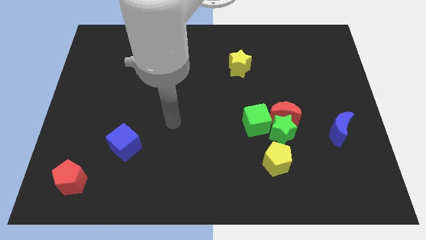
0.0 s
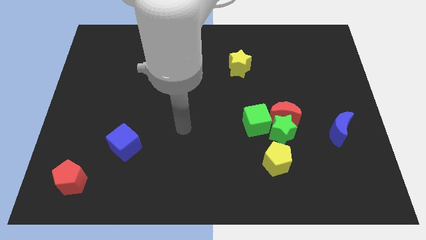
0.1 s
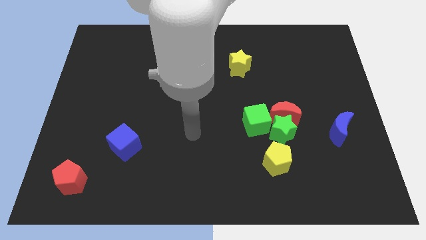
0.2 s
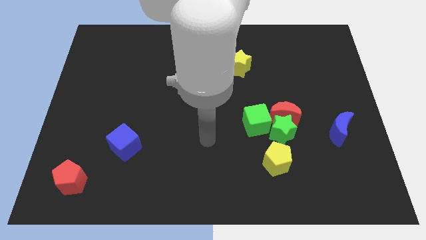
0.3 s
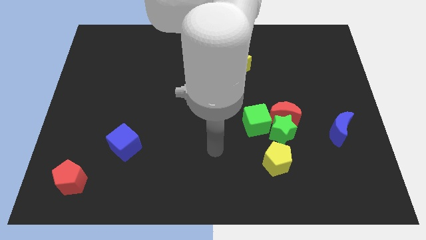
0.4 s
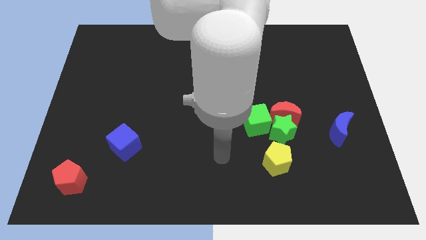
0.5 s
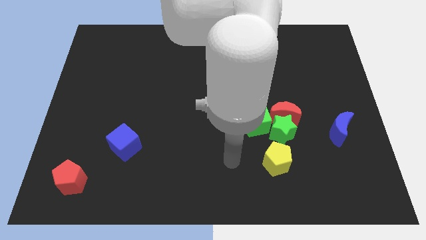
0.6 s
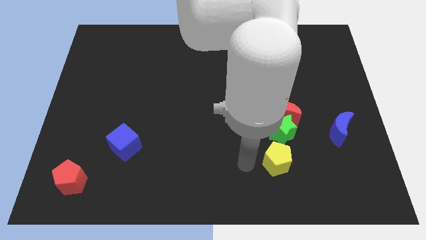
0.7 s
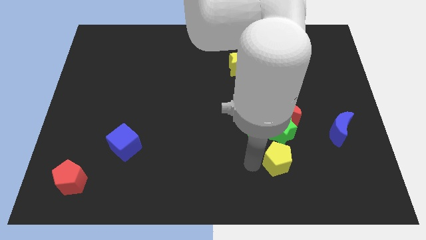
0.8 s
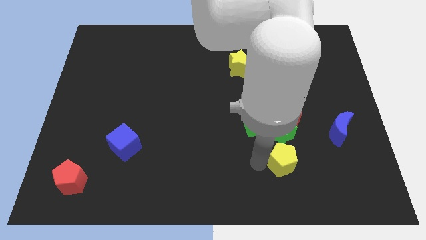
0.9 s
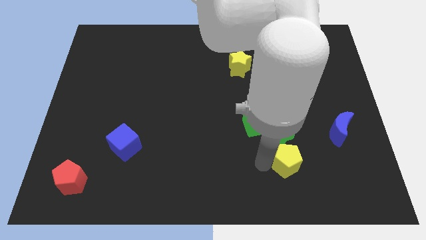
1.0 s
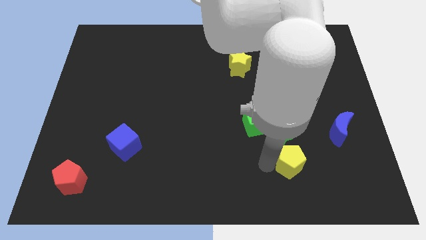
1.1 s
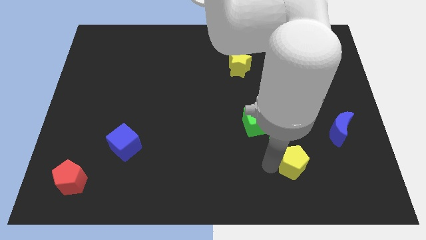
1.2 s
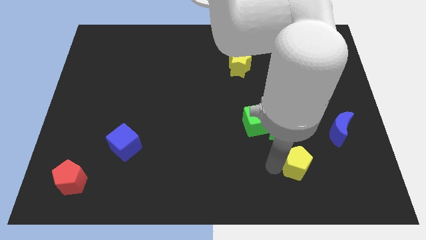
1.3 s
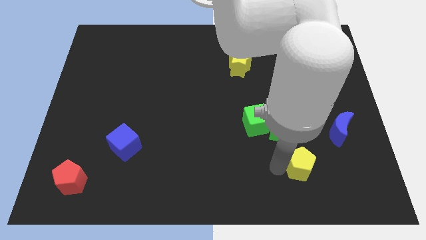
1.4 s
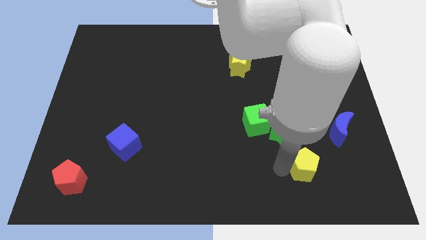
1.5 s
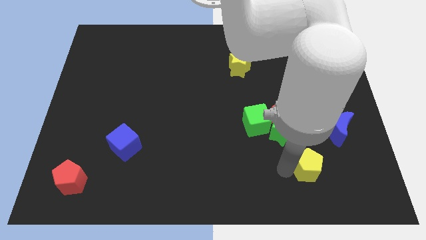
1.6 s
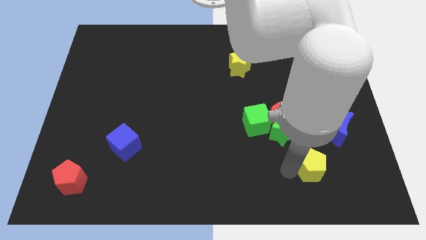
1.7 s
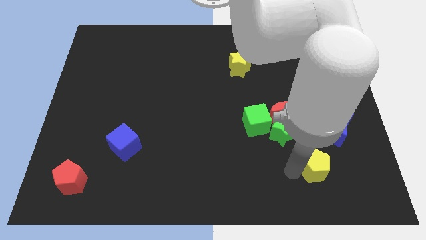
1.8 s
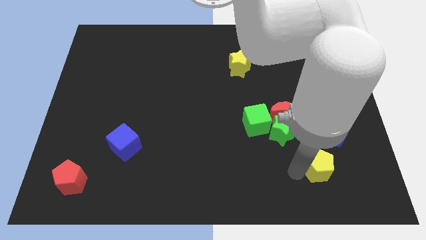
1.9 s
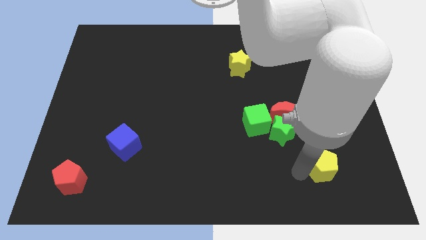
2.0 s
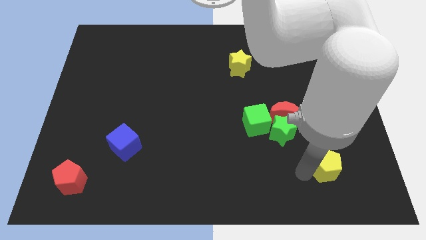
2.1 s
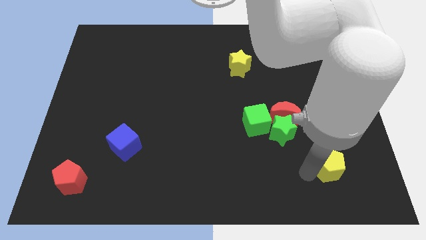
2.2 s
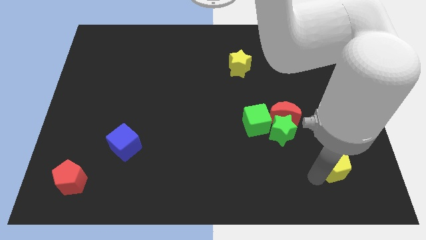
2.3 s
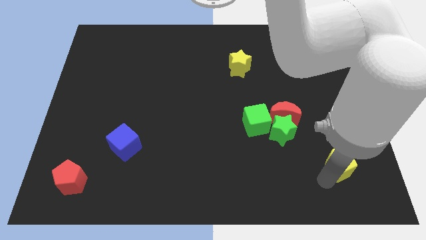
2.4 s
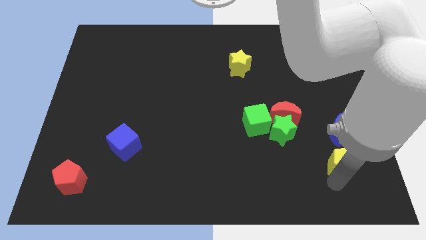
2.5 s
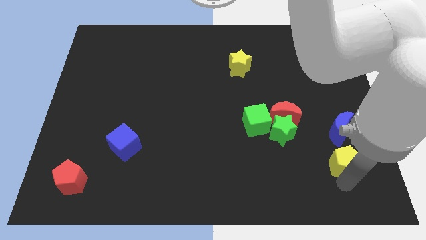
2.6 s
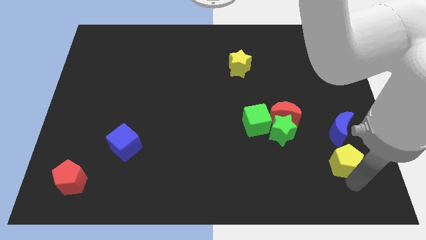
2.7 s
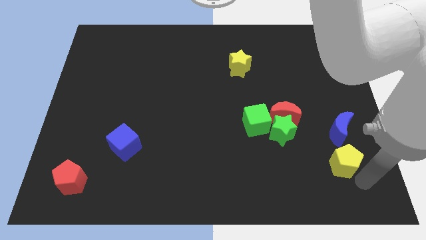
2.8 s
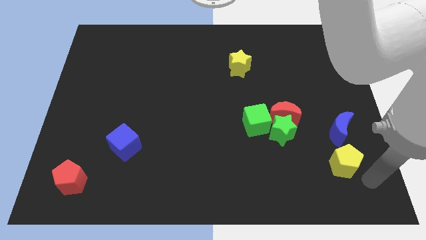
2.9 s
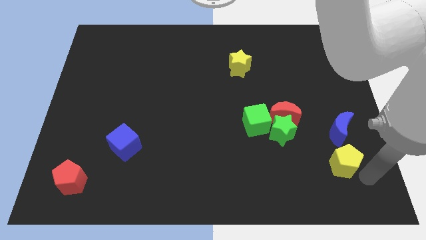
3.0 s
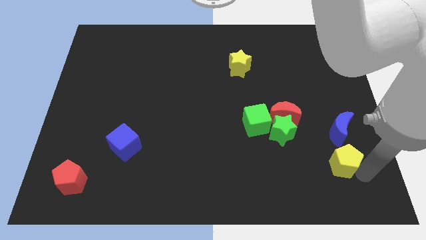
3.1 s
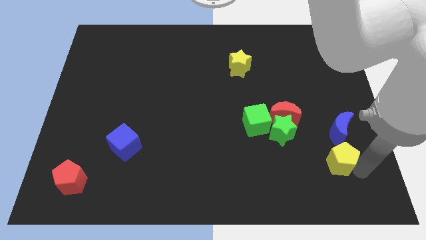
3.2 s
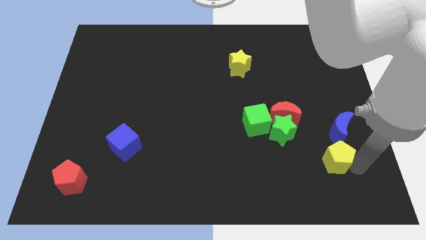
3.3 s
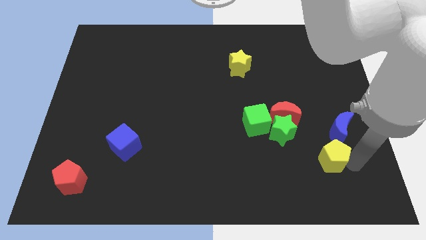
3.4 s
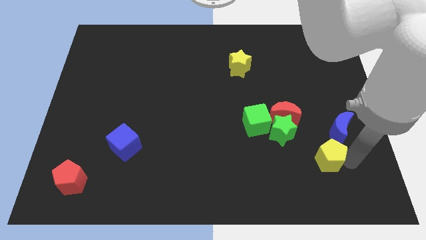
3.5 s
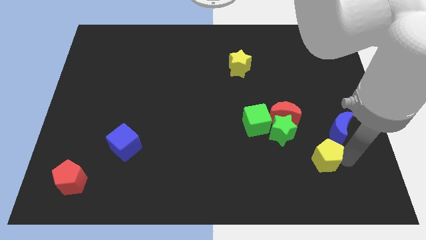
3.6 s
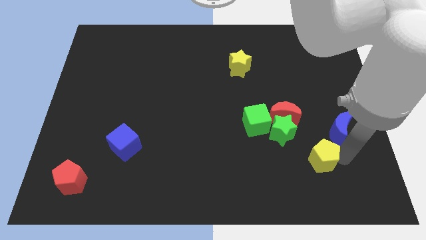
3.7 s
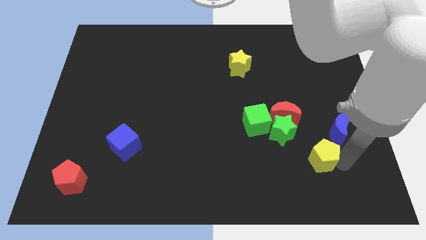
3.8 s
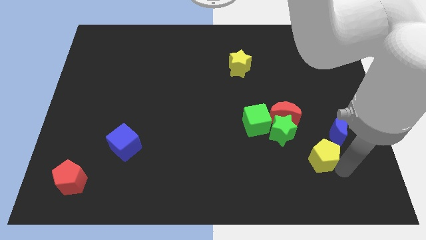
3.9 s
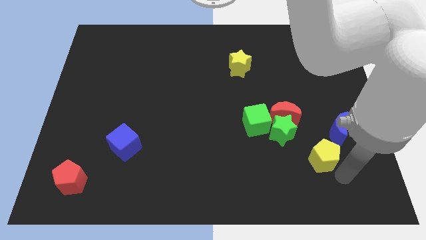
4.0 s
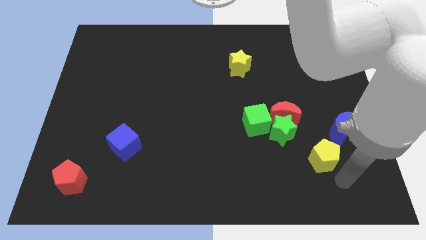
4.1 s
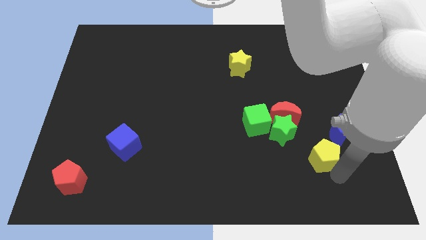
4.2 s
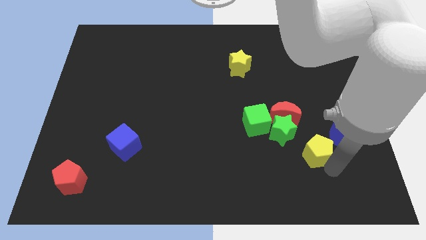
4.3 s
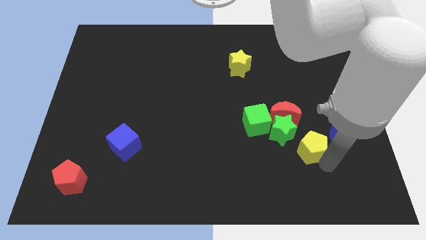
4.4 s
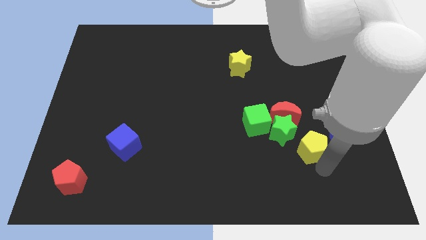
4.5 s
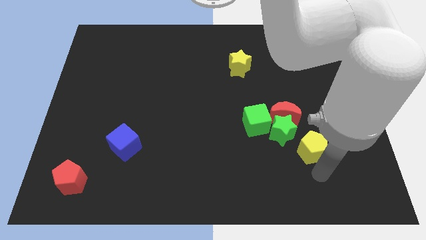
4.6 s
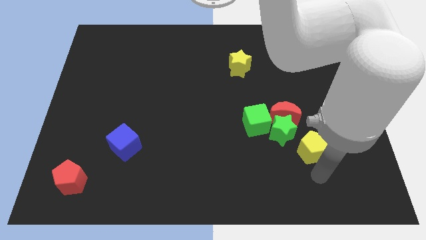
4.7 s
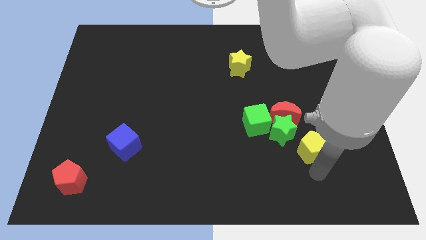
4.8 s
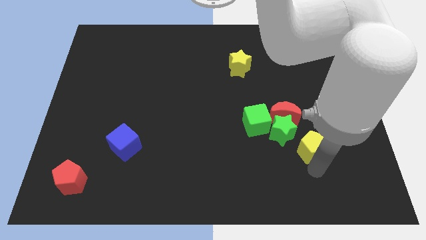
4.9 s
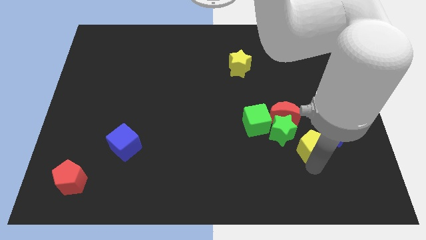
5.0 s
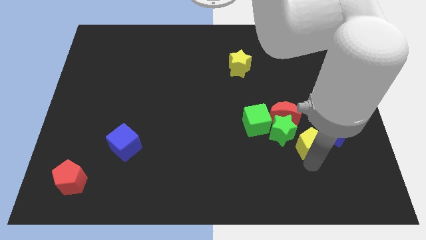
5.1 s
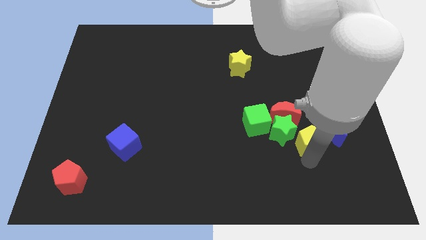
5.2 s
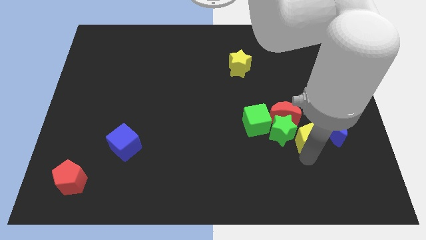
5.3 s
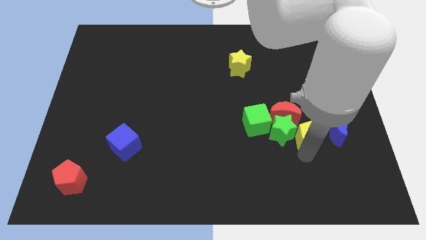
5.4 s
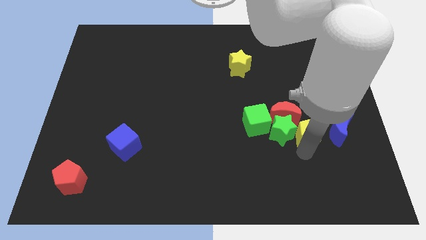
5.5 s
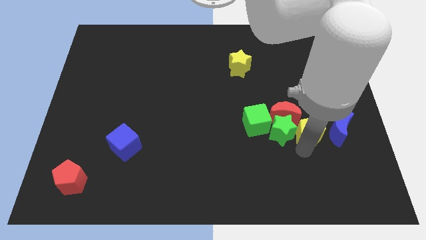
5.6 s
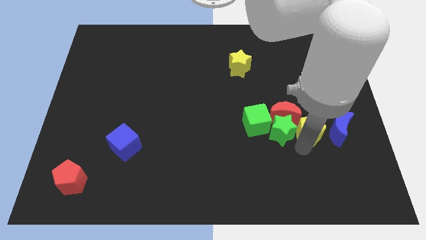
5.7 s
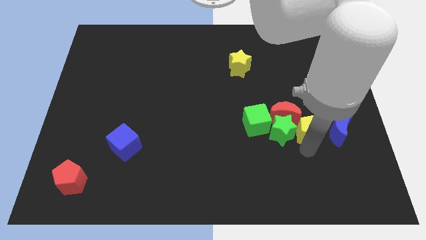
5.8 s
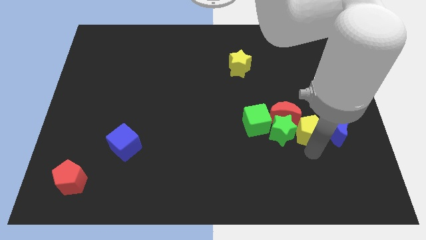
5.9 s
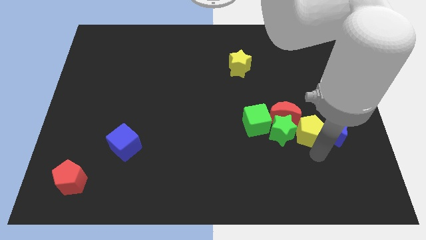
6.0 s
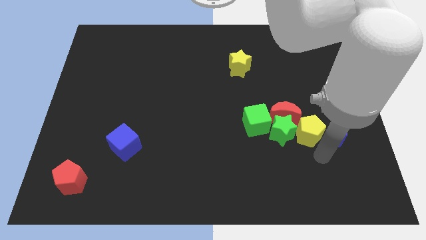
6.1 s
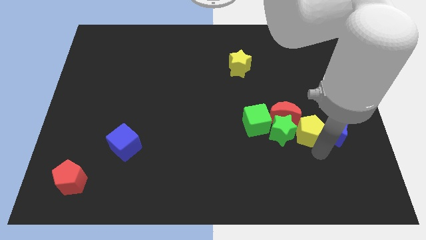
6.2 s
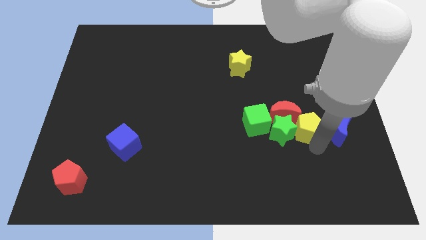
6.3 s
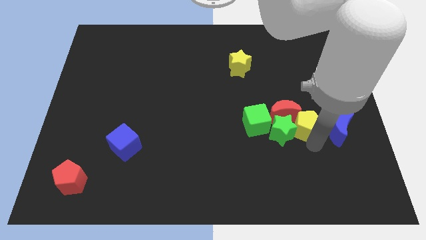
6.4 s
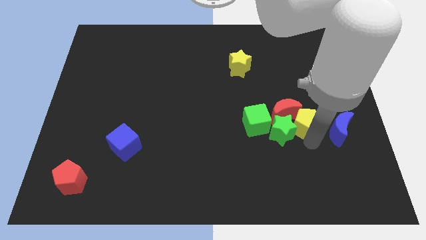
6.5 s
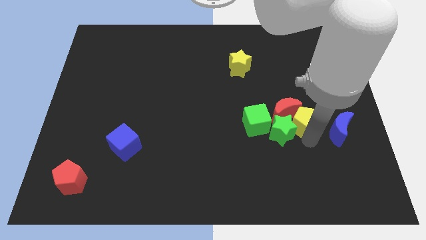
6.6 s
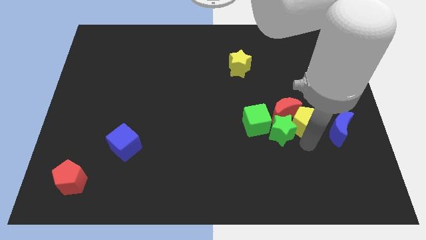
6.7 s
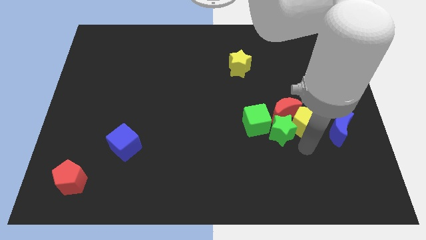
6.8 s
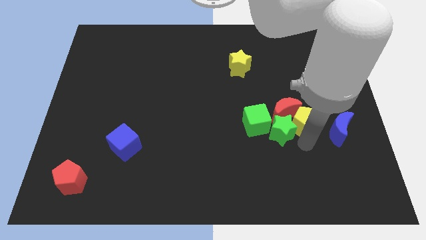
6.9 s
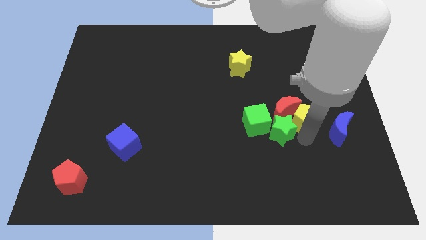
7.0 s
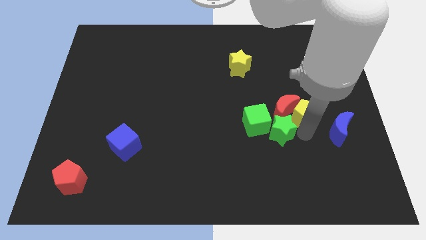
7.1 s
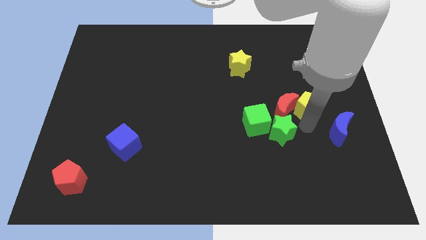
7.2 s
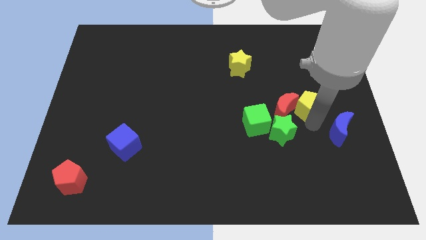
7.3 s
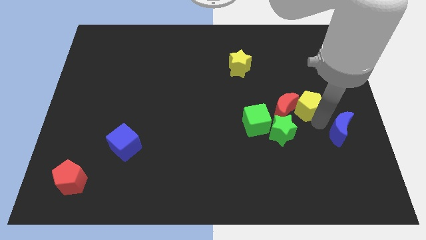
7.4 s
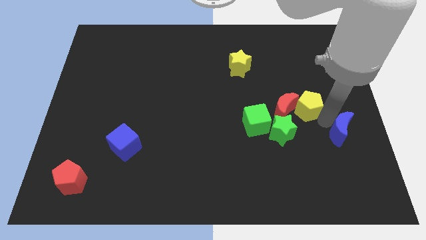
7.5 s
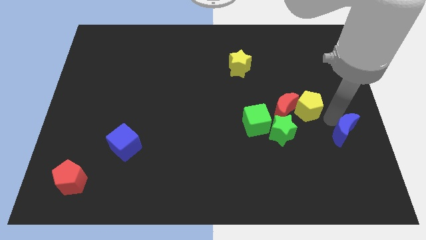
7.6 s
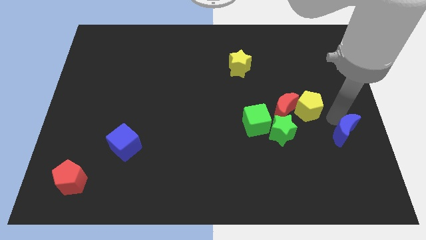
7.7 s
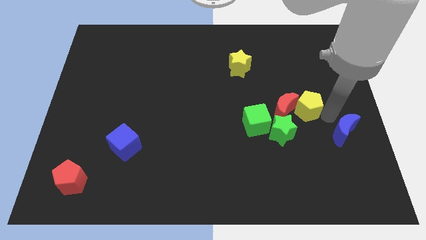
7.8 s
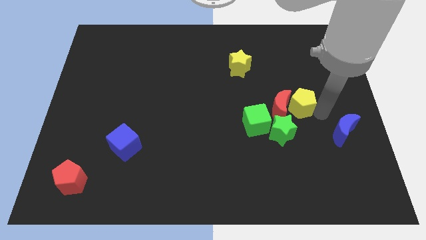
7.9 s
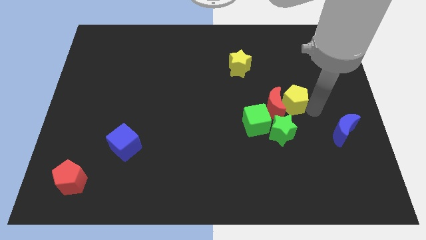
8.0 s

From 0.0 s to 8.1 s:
move the yellow pentagon to the top of the green star
